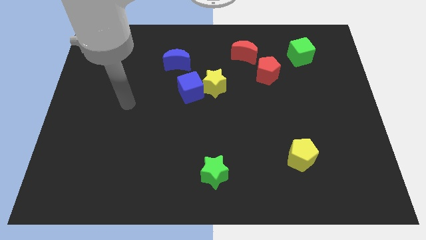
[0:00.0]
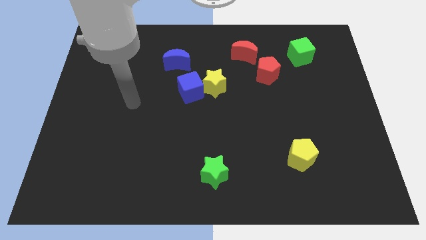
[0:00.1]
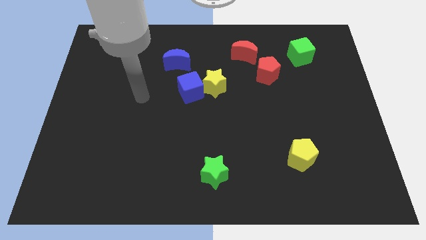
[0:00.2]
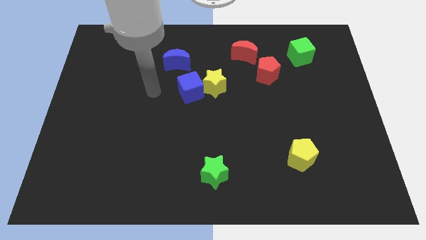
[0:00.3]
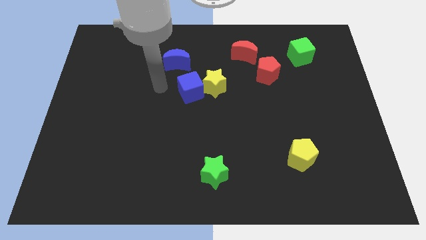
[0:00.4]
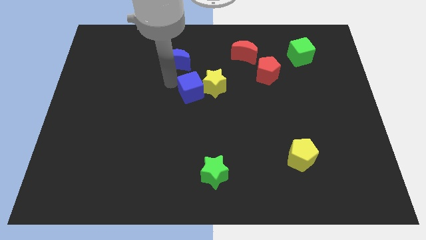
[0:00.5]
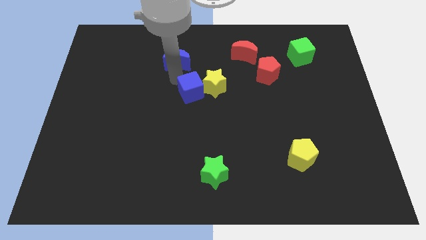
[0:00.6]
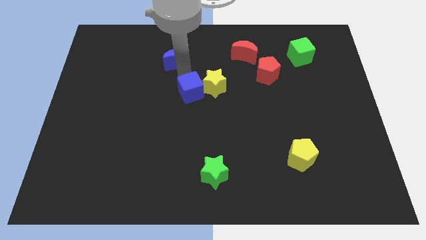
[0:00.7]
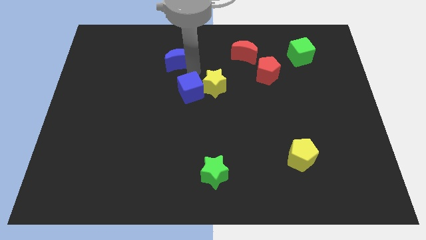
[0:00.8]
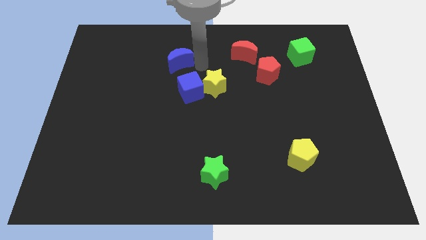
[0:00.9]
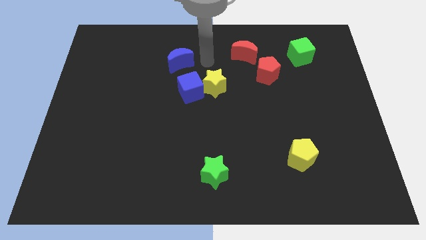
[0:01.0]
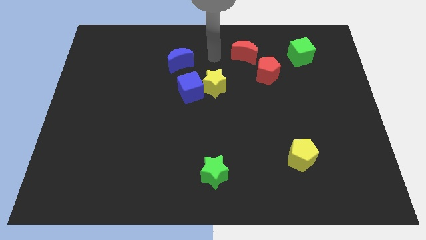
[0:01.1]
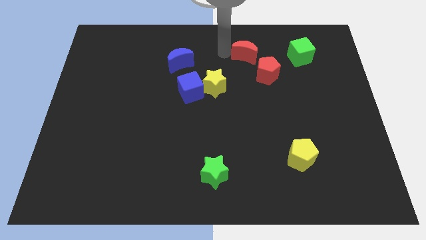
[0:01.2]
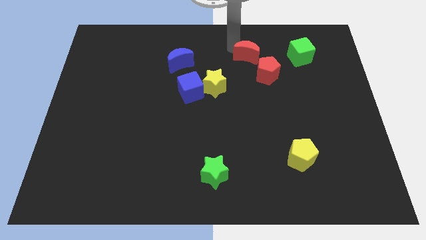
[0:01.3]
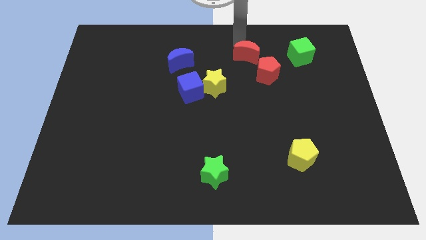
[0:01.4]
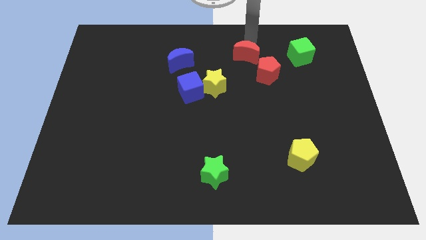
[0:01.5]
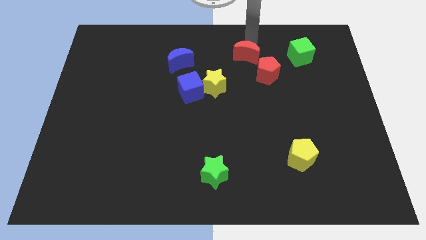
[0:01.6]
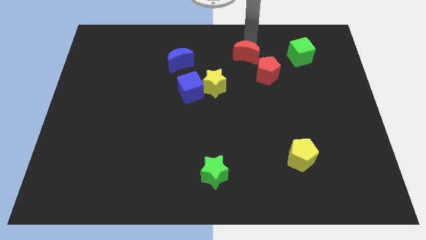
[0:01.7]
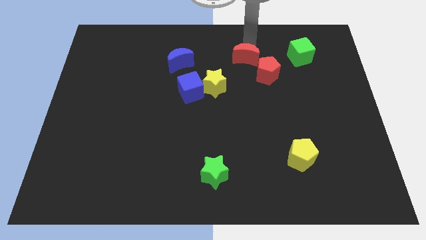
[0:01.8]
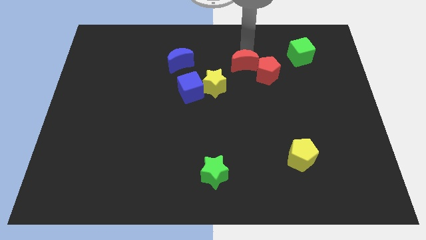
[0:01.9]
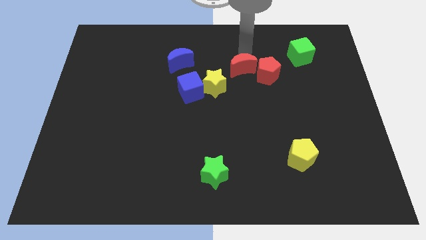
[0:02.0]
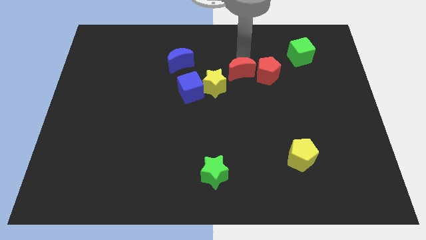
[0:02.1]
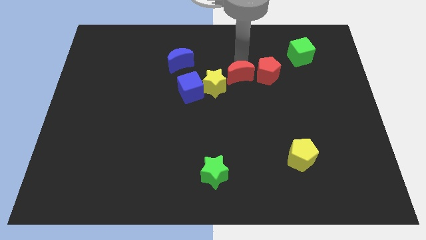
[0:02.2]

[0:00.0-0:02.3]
slightly slide the red moon downwards

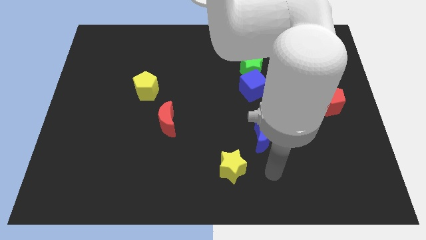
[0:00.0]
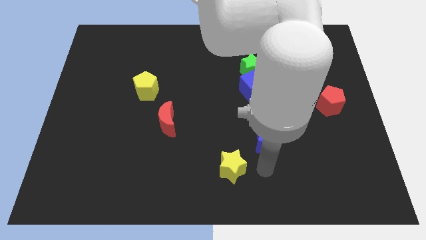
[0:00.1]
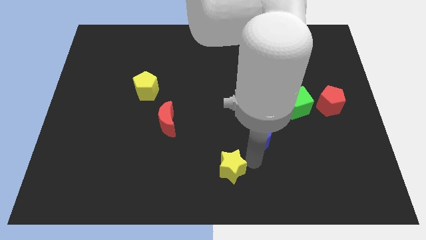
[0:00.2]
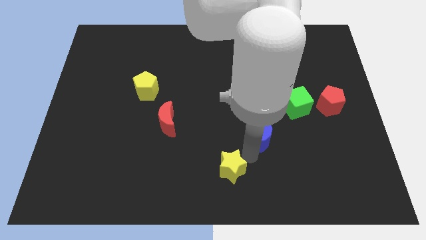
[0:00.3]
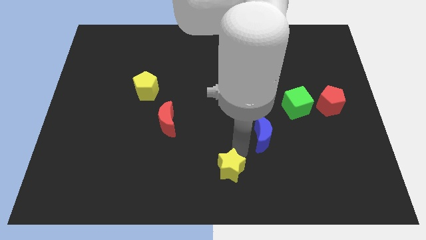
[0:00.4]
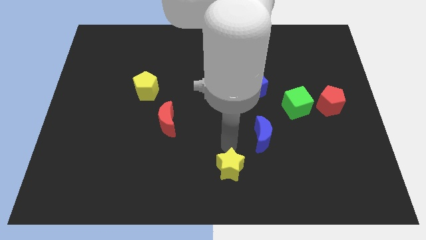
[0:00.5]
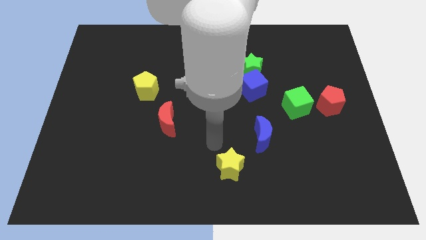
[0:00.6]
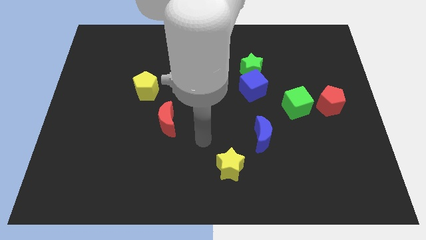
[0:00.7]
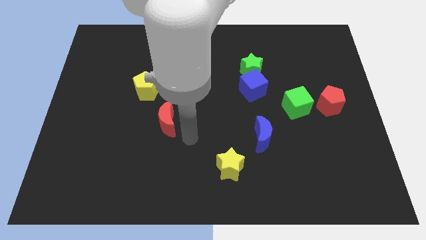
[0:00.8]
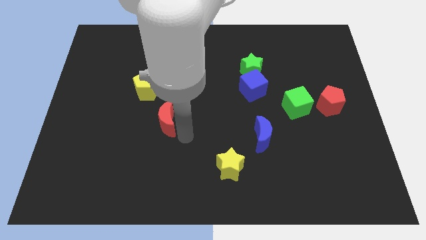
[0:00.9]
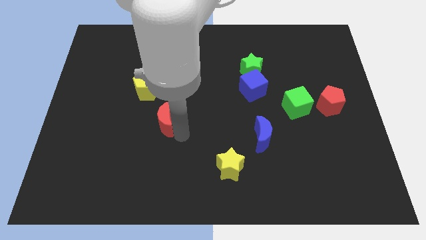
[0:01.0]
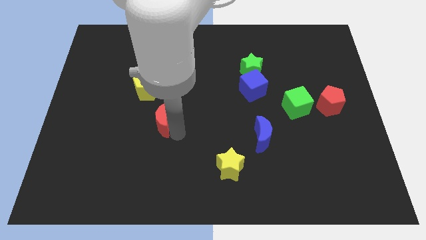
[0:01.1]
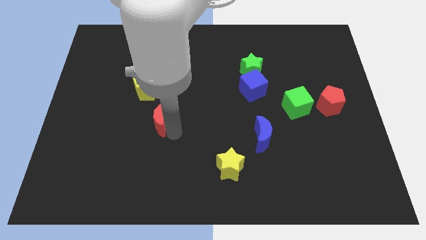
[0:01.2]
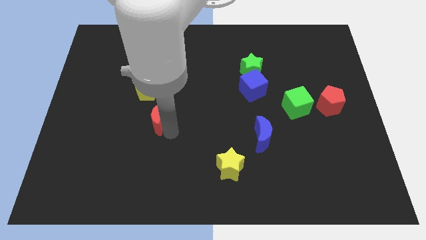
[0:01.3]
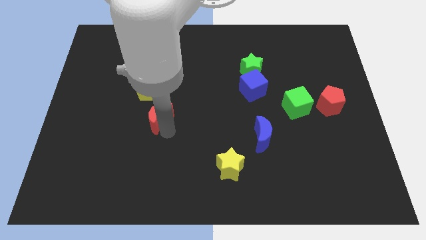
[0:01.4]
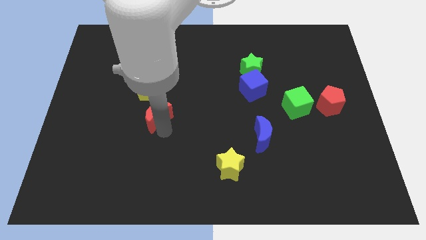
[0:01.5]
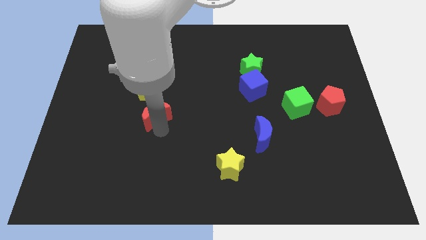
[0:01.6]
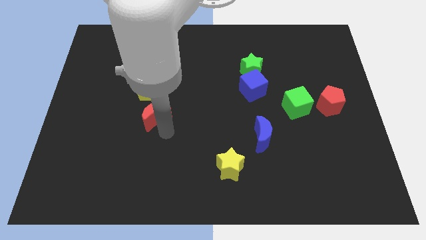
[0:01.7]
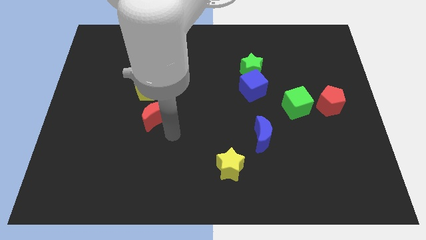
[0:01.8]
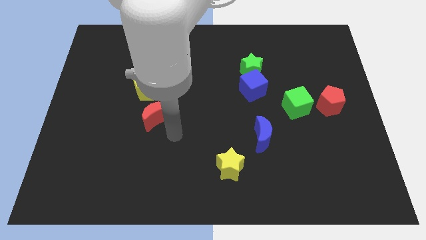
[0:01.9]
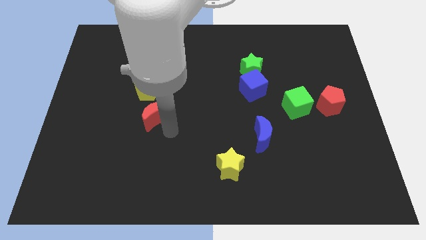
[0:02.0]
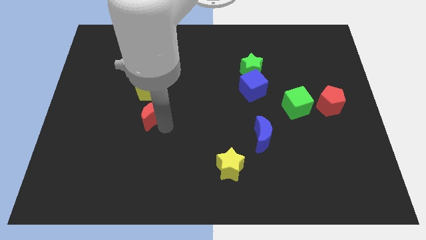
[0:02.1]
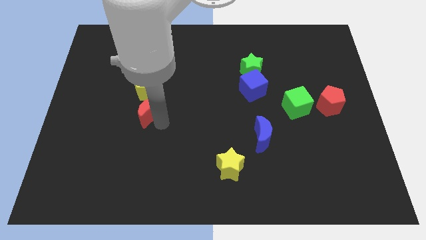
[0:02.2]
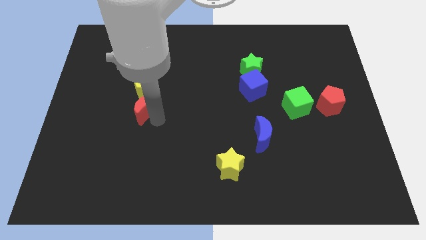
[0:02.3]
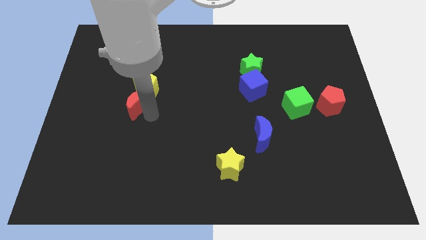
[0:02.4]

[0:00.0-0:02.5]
slightly move the red moon up and to the left diagonally

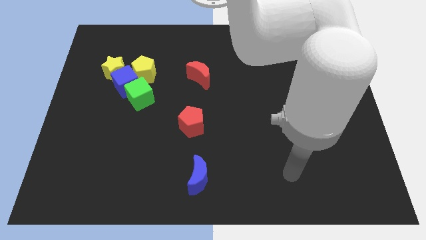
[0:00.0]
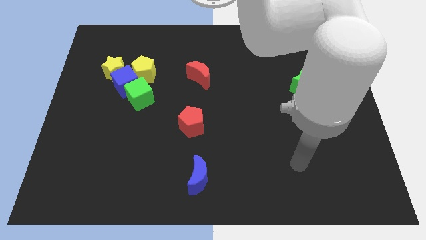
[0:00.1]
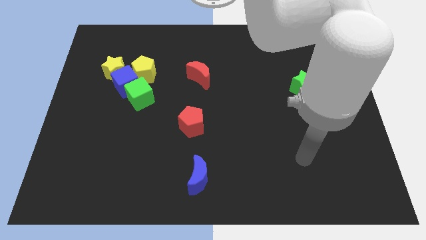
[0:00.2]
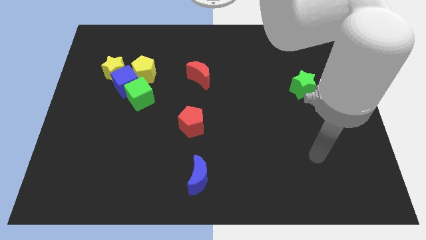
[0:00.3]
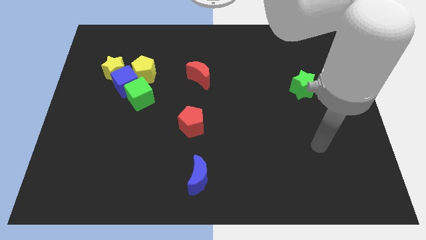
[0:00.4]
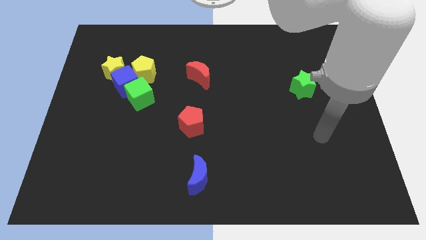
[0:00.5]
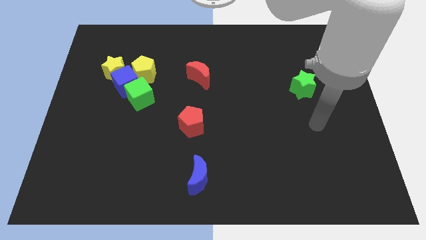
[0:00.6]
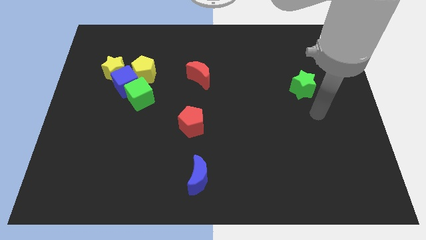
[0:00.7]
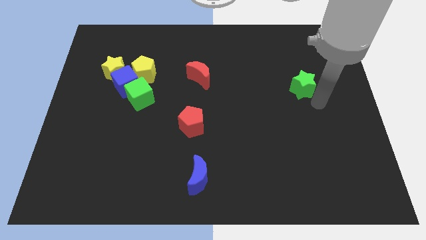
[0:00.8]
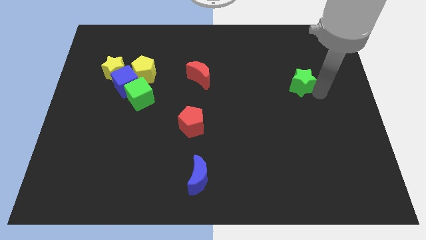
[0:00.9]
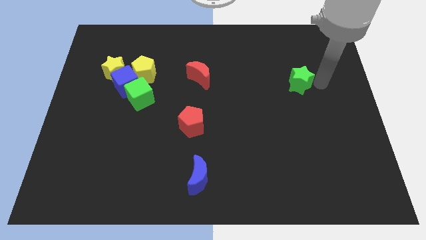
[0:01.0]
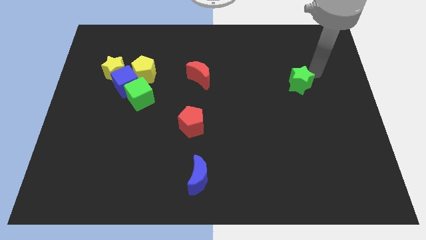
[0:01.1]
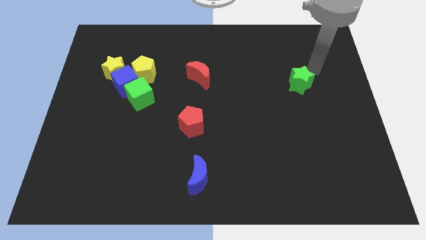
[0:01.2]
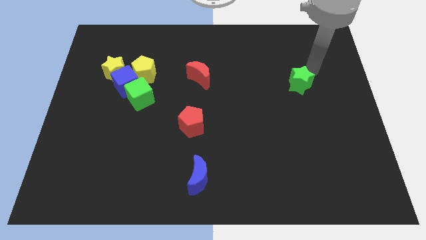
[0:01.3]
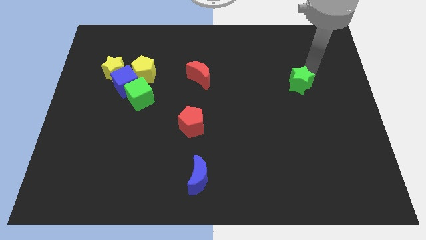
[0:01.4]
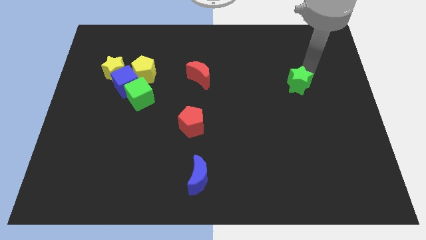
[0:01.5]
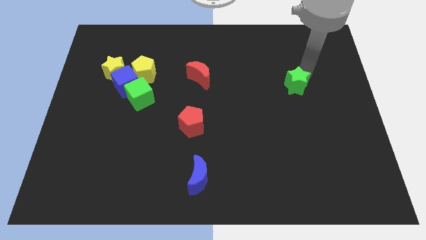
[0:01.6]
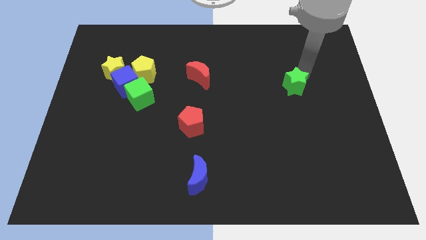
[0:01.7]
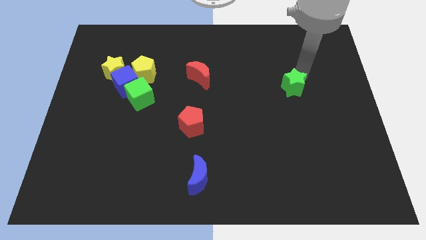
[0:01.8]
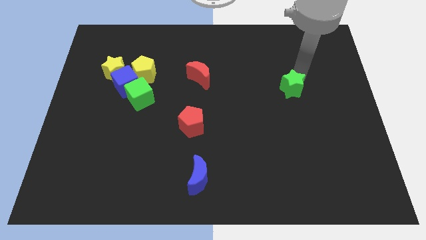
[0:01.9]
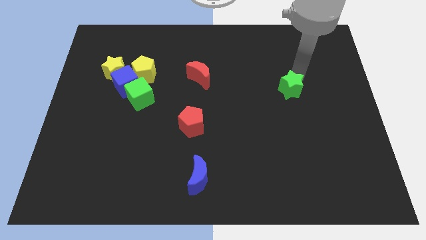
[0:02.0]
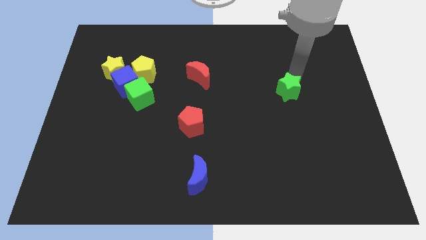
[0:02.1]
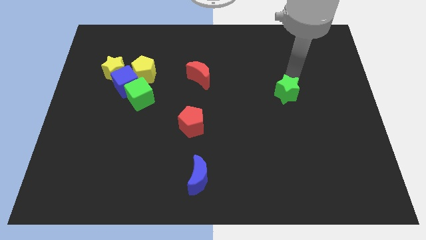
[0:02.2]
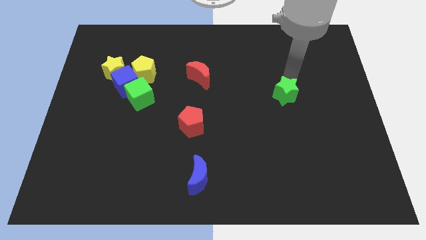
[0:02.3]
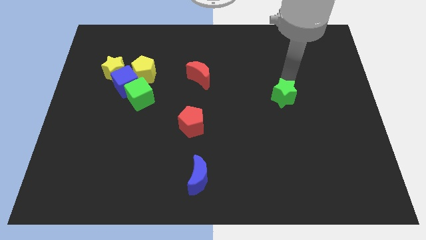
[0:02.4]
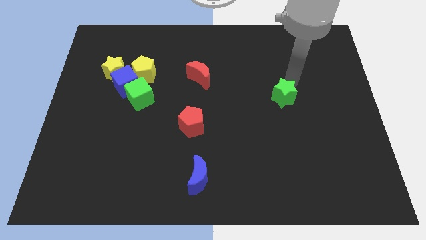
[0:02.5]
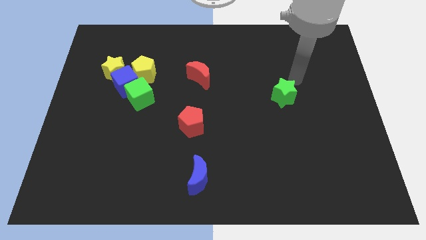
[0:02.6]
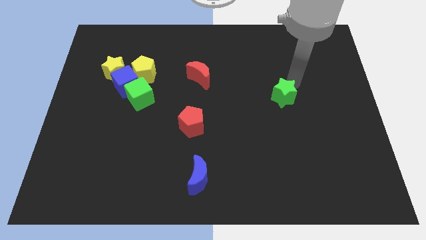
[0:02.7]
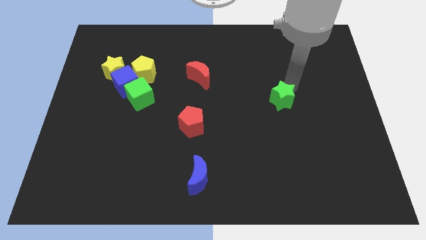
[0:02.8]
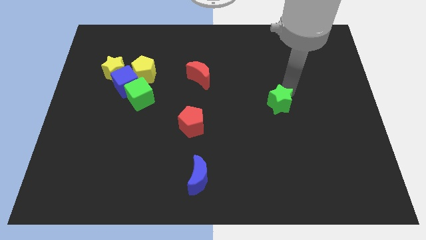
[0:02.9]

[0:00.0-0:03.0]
slightly push the green star diagonally downwards and left
